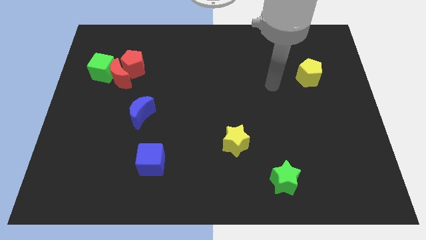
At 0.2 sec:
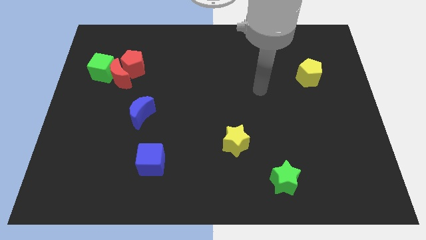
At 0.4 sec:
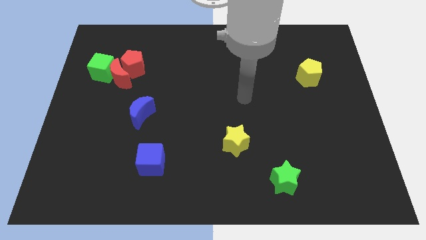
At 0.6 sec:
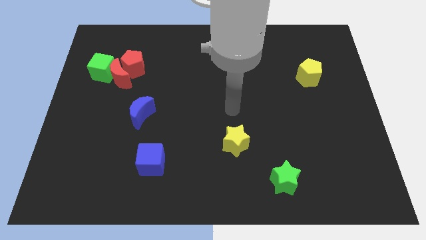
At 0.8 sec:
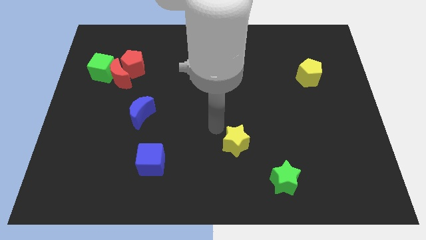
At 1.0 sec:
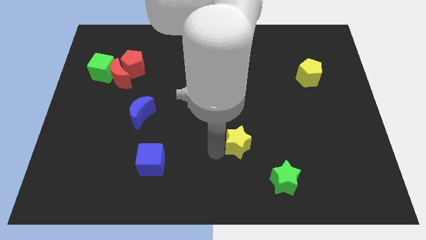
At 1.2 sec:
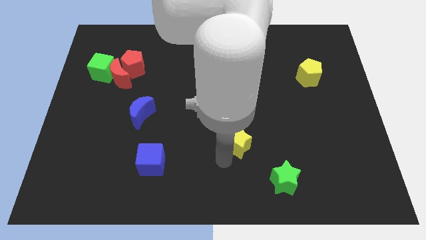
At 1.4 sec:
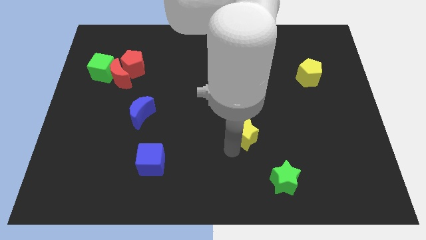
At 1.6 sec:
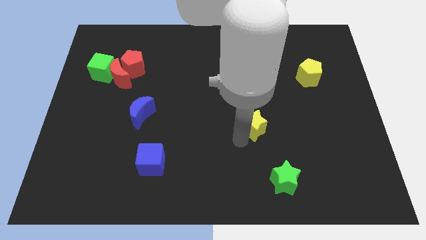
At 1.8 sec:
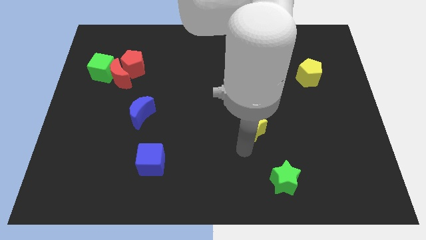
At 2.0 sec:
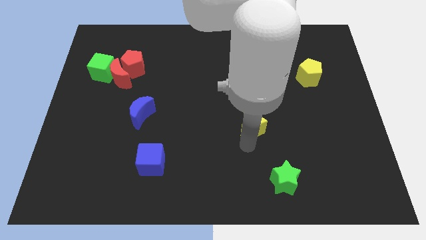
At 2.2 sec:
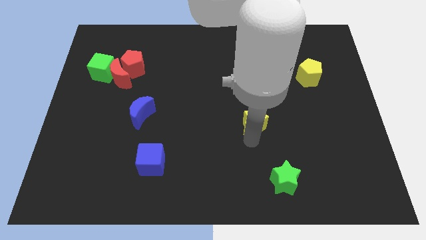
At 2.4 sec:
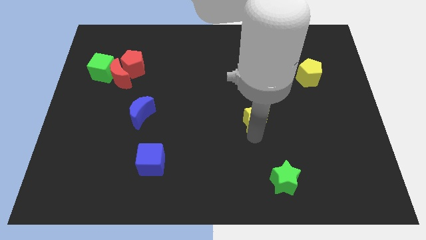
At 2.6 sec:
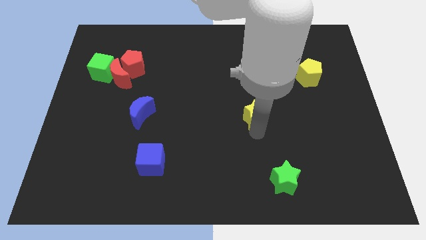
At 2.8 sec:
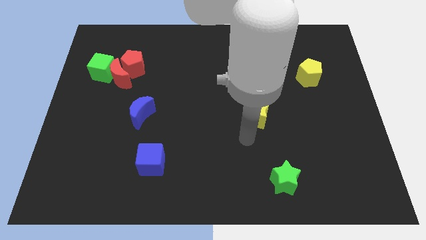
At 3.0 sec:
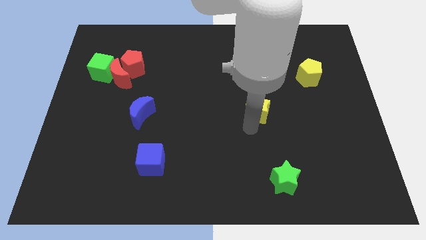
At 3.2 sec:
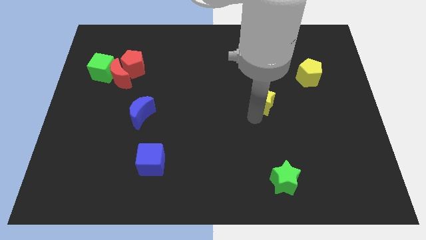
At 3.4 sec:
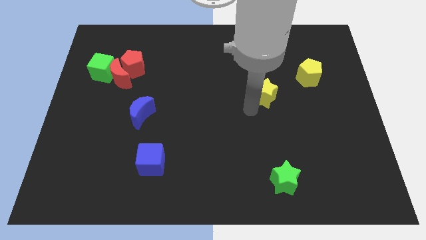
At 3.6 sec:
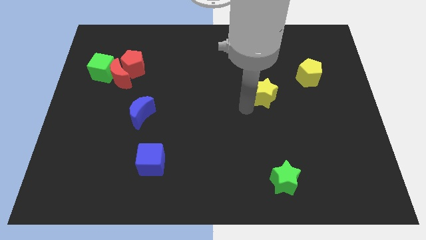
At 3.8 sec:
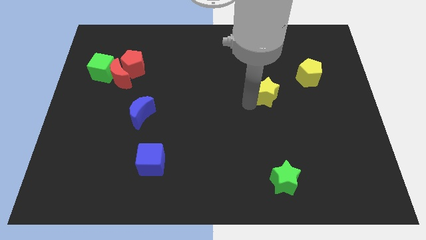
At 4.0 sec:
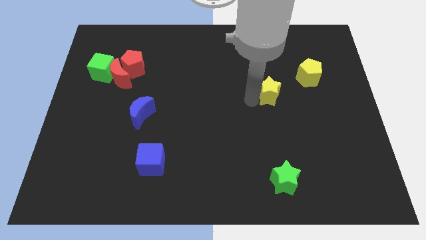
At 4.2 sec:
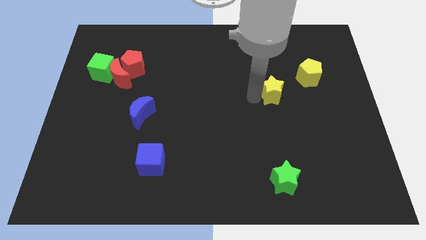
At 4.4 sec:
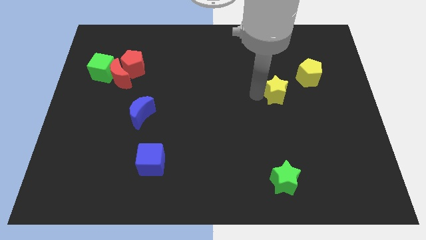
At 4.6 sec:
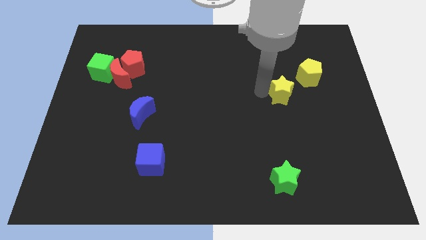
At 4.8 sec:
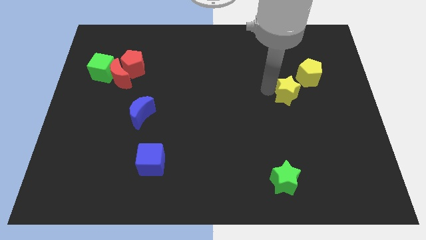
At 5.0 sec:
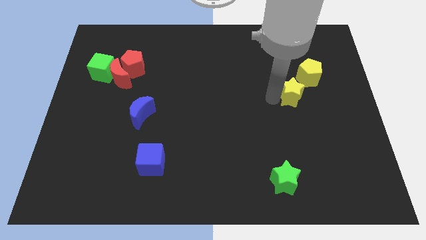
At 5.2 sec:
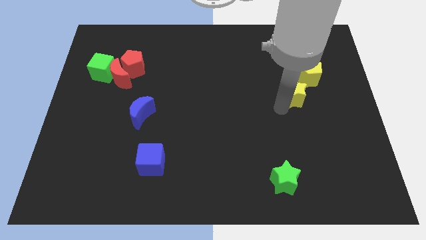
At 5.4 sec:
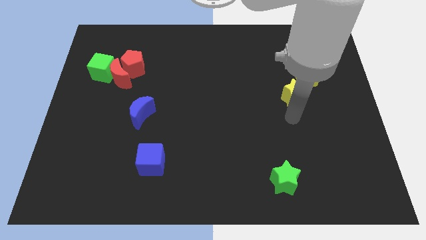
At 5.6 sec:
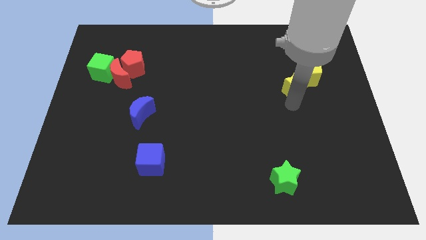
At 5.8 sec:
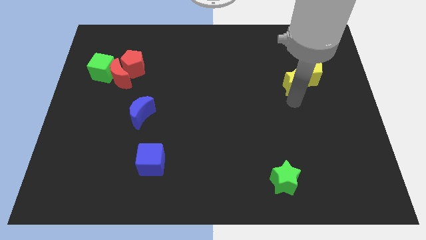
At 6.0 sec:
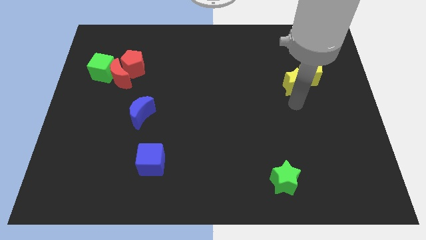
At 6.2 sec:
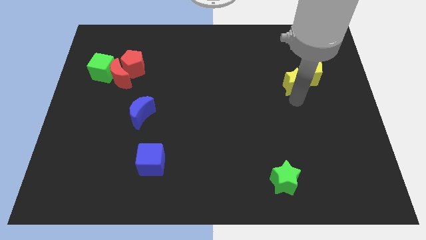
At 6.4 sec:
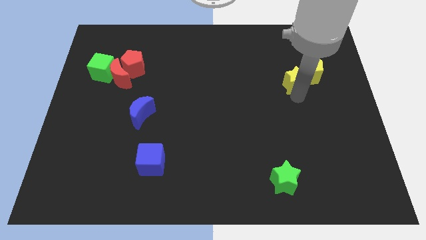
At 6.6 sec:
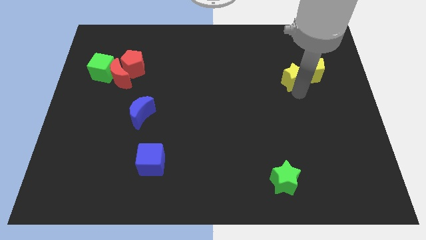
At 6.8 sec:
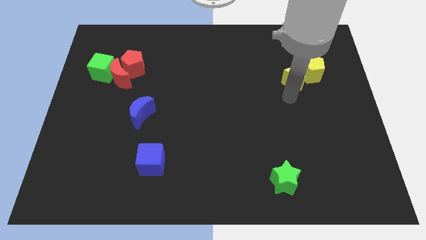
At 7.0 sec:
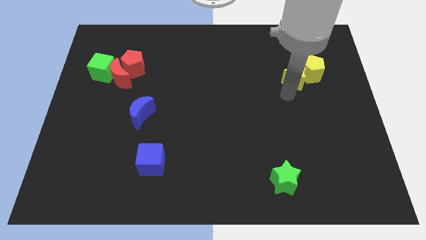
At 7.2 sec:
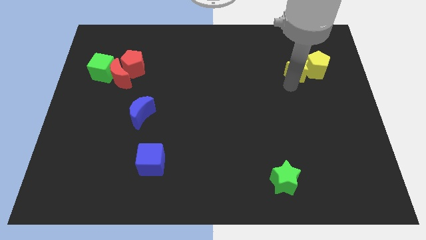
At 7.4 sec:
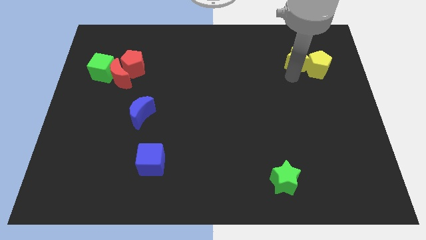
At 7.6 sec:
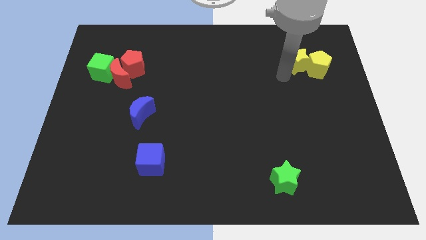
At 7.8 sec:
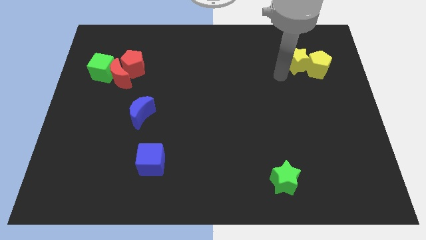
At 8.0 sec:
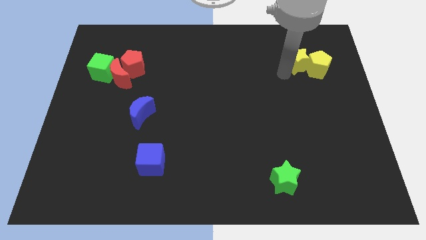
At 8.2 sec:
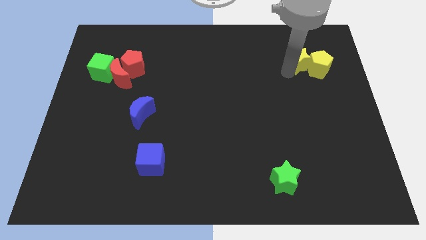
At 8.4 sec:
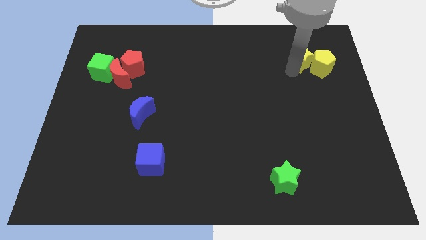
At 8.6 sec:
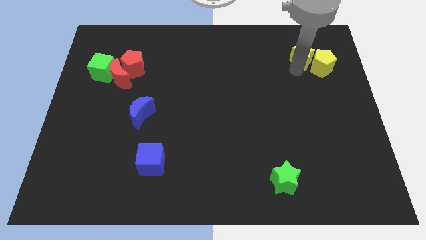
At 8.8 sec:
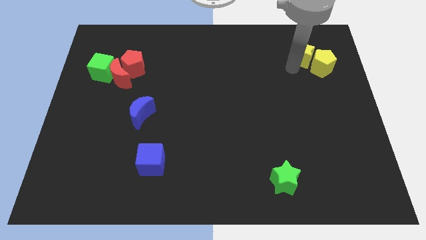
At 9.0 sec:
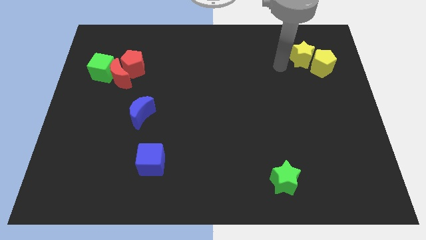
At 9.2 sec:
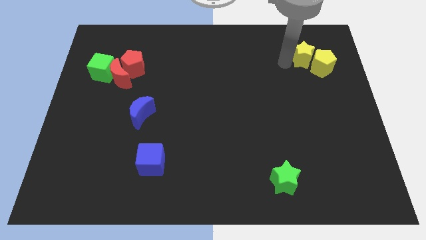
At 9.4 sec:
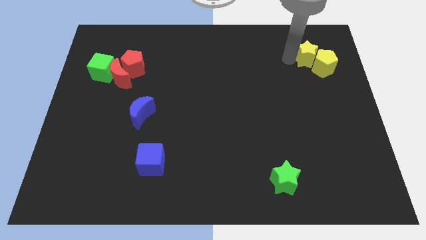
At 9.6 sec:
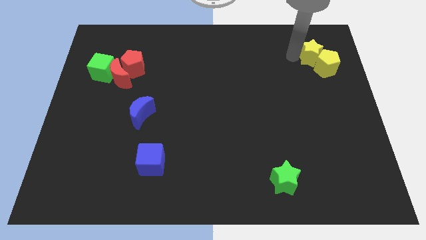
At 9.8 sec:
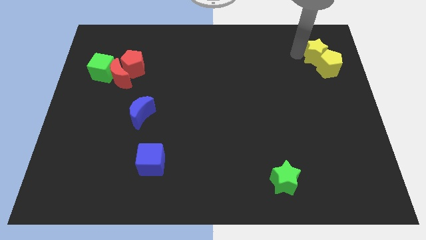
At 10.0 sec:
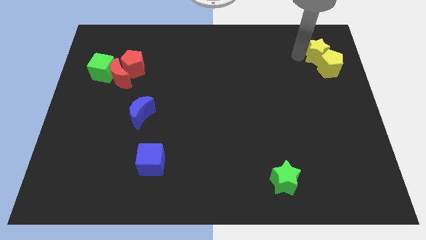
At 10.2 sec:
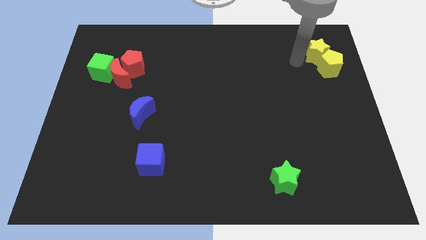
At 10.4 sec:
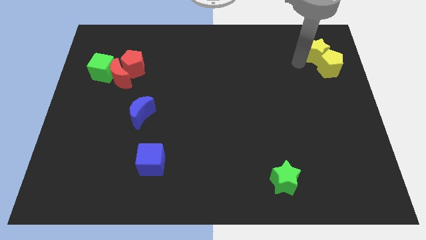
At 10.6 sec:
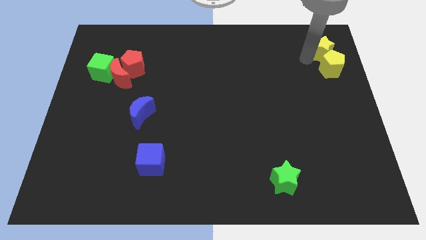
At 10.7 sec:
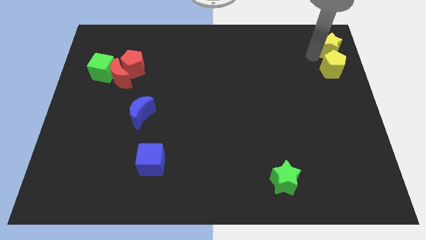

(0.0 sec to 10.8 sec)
put the yellow star to the upper right corner

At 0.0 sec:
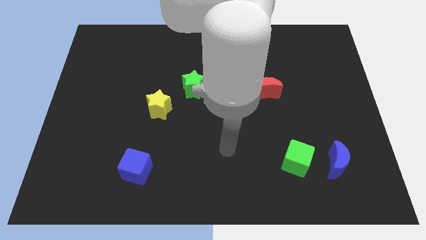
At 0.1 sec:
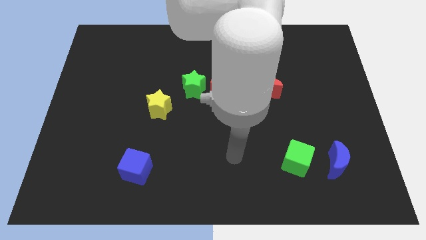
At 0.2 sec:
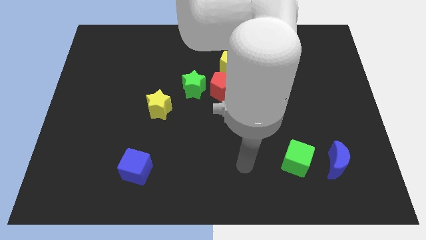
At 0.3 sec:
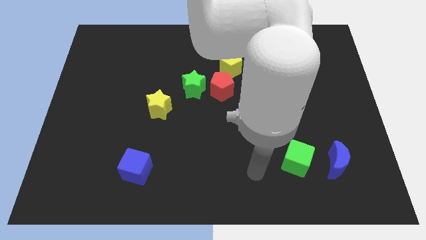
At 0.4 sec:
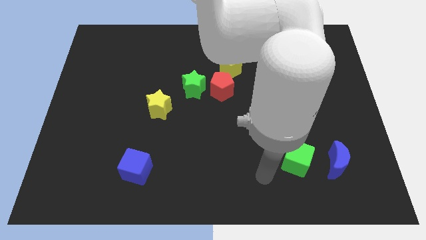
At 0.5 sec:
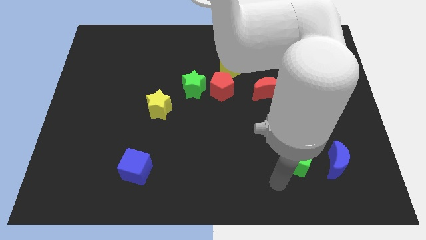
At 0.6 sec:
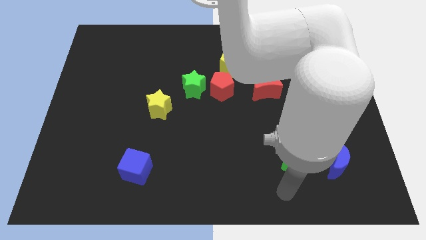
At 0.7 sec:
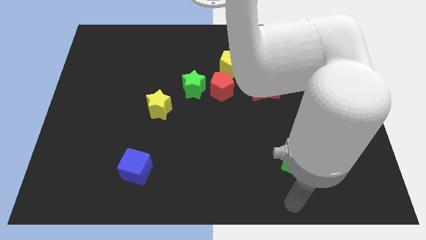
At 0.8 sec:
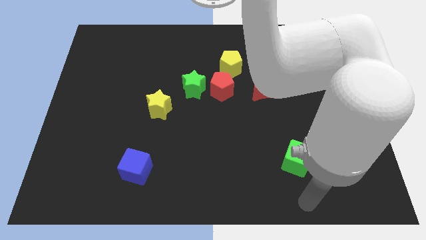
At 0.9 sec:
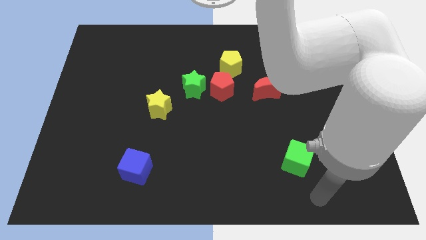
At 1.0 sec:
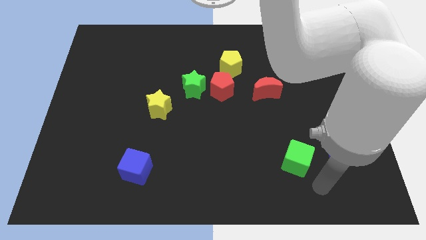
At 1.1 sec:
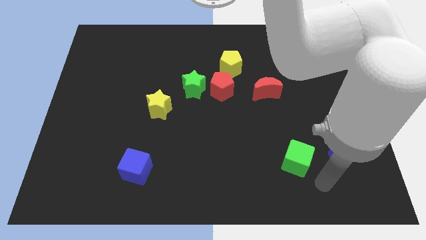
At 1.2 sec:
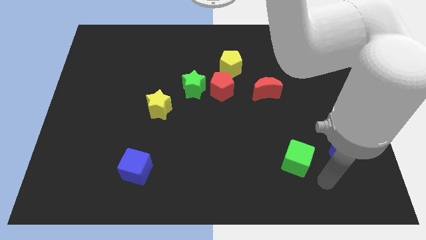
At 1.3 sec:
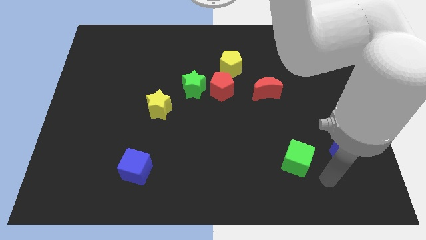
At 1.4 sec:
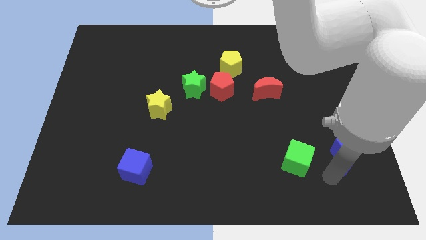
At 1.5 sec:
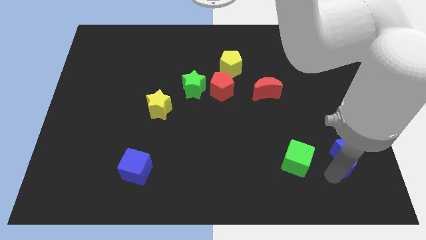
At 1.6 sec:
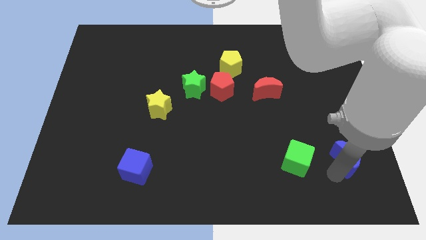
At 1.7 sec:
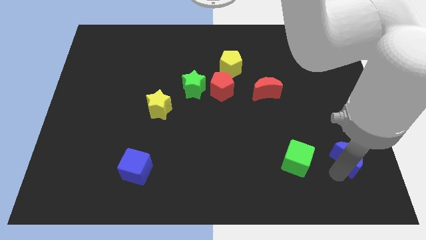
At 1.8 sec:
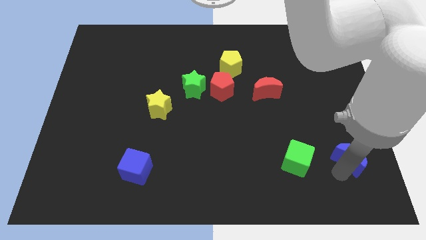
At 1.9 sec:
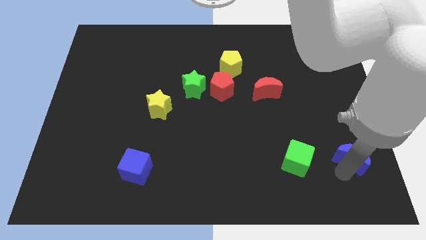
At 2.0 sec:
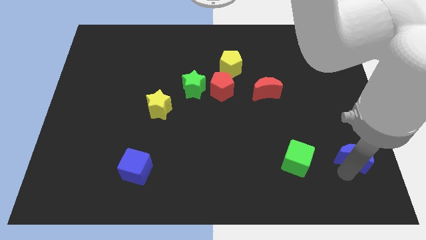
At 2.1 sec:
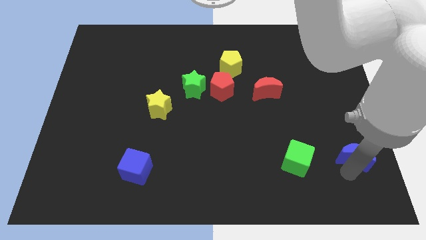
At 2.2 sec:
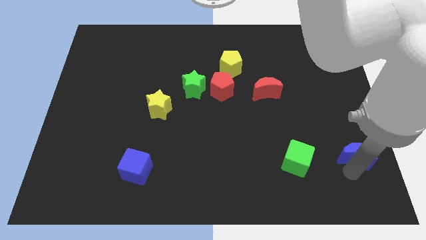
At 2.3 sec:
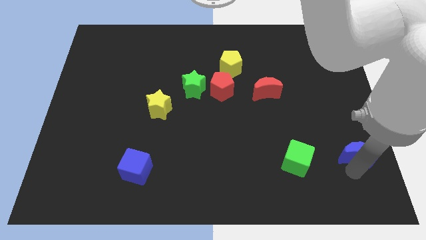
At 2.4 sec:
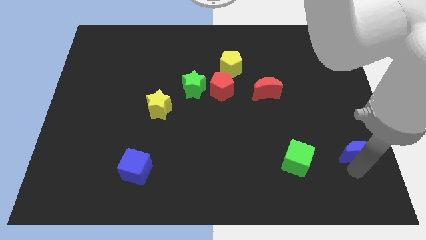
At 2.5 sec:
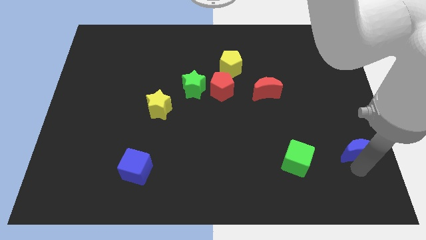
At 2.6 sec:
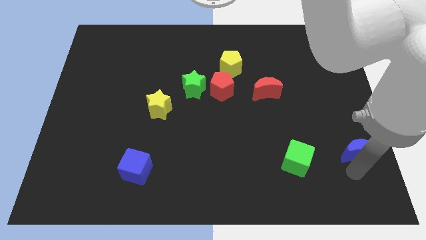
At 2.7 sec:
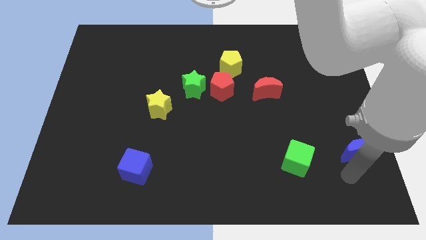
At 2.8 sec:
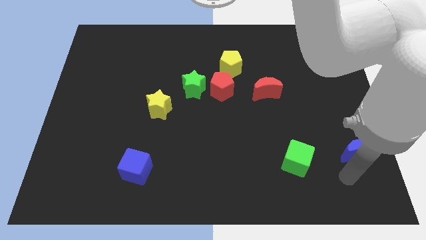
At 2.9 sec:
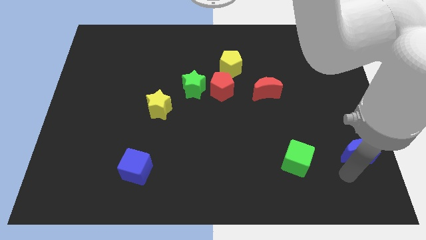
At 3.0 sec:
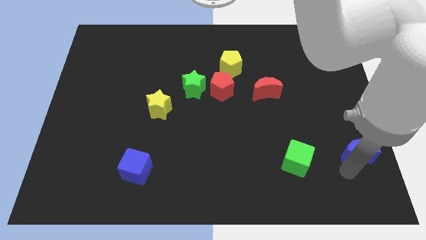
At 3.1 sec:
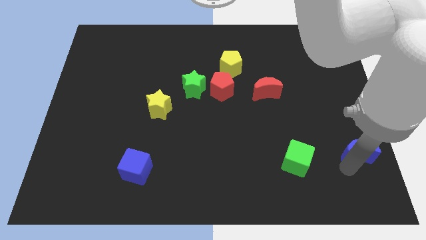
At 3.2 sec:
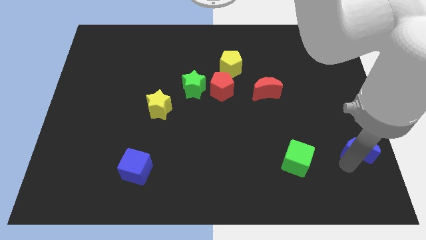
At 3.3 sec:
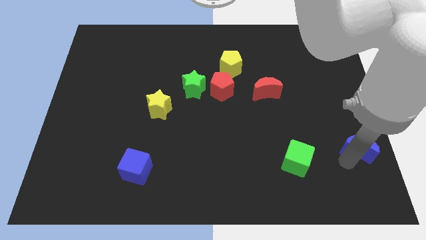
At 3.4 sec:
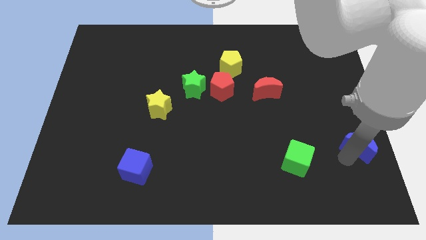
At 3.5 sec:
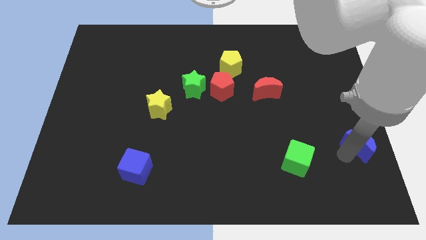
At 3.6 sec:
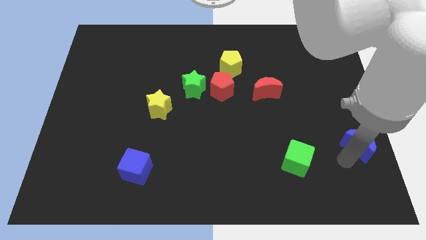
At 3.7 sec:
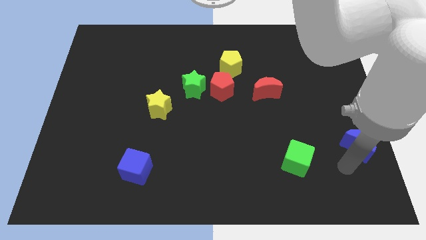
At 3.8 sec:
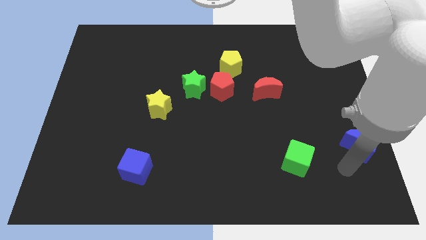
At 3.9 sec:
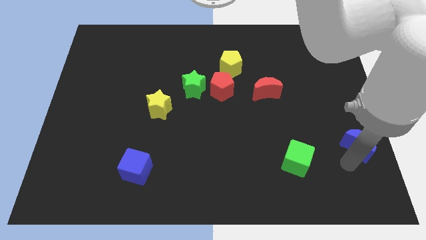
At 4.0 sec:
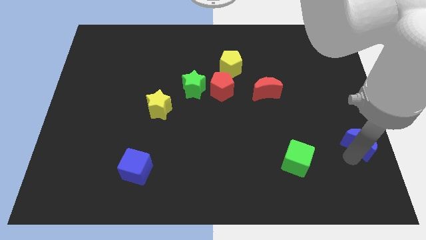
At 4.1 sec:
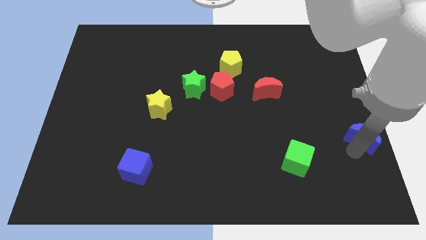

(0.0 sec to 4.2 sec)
put the blue moon to the right side of the board
